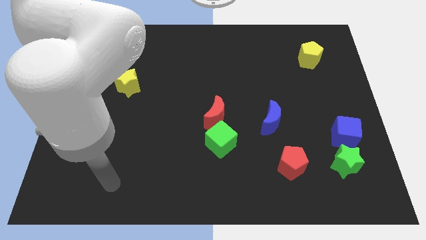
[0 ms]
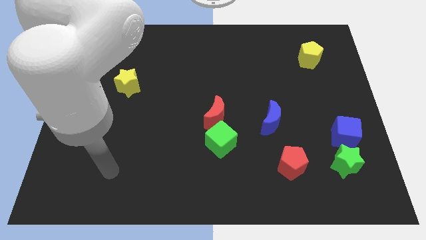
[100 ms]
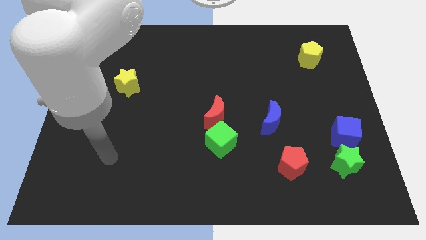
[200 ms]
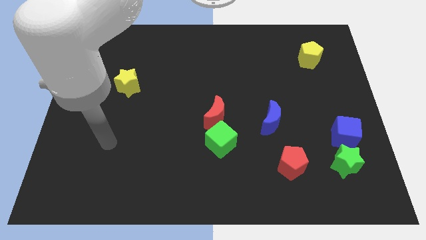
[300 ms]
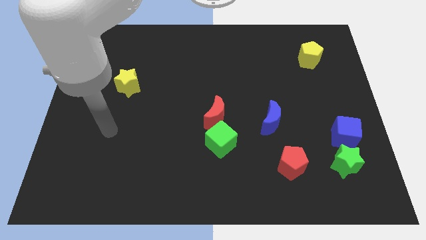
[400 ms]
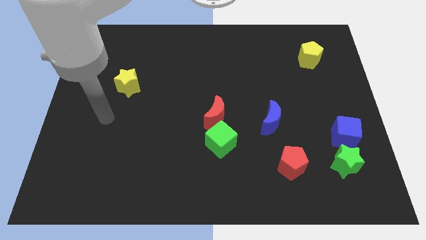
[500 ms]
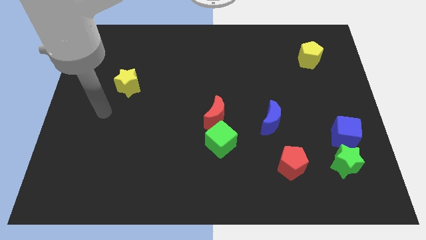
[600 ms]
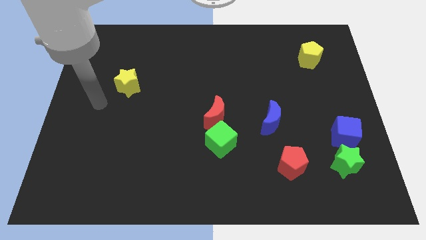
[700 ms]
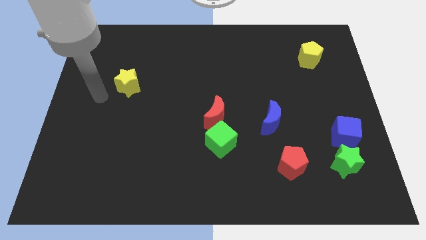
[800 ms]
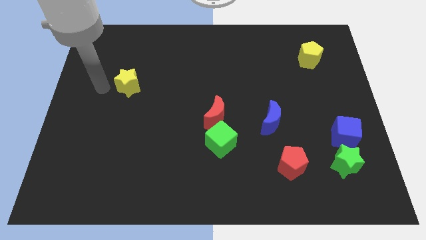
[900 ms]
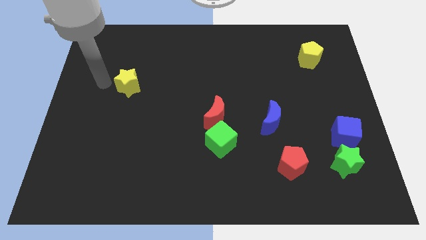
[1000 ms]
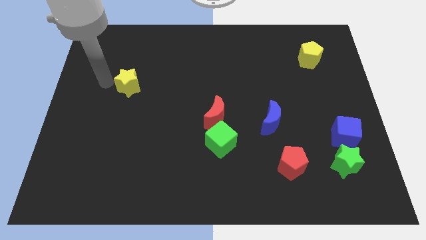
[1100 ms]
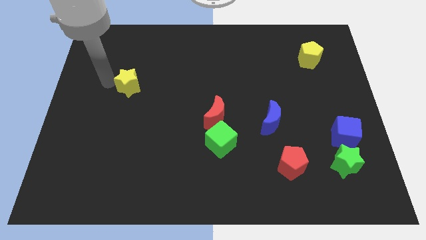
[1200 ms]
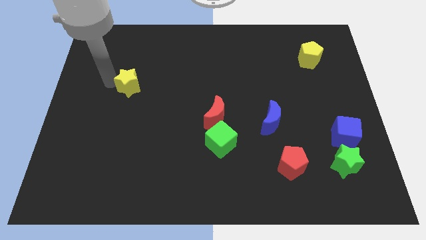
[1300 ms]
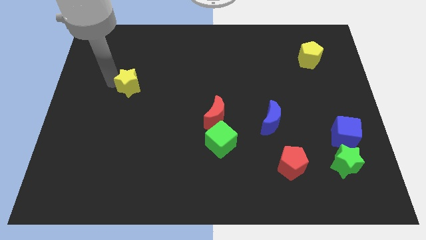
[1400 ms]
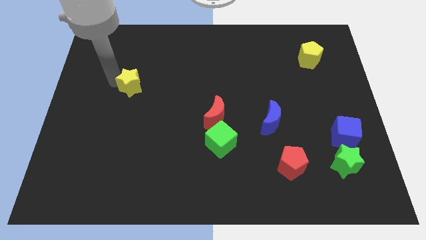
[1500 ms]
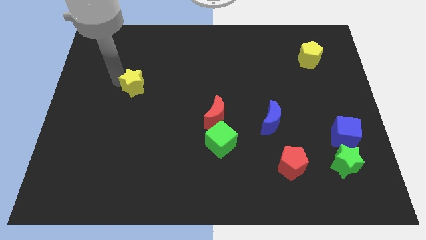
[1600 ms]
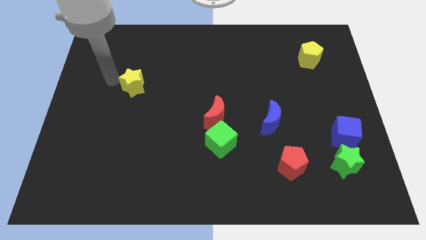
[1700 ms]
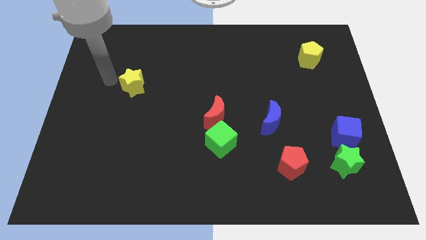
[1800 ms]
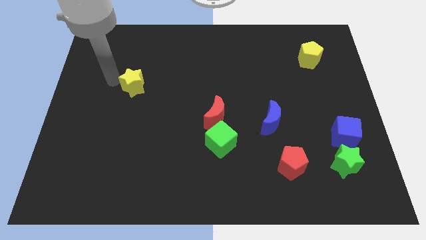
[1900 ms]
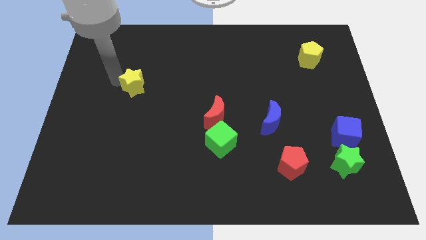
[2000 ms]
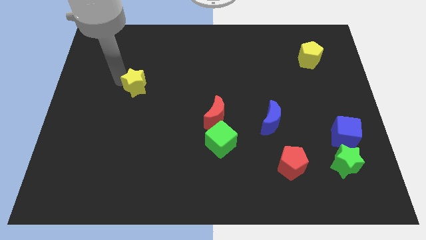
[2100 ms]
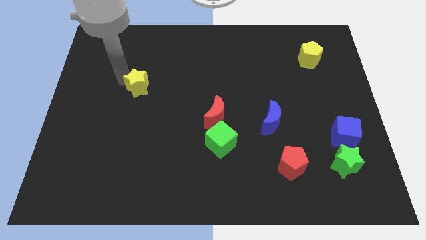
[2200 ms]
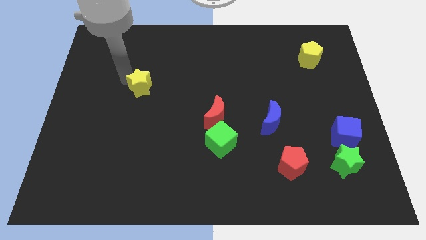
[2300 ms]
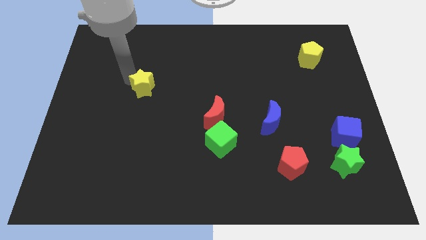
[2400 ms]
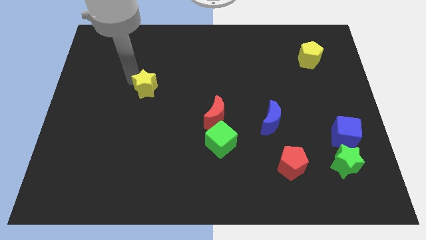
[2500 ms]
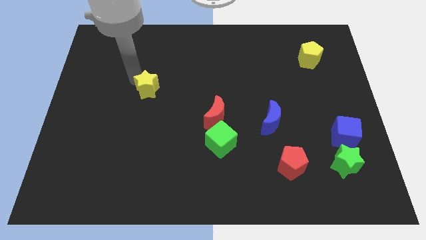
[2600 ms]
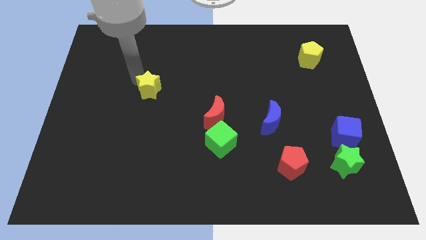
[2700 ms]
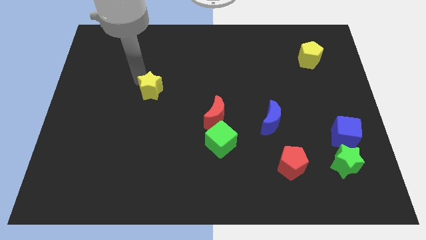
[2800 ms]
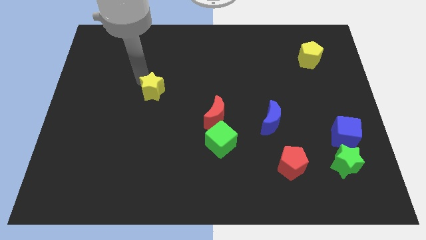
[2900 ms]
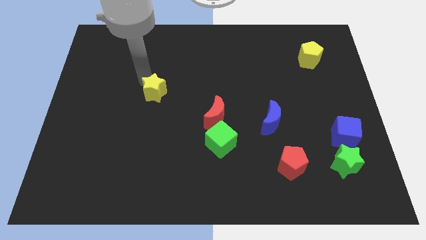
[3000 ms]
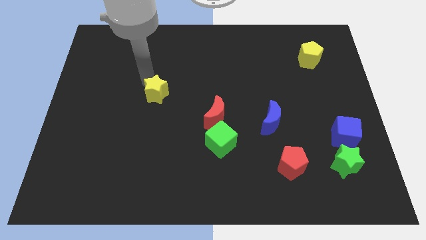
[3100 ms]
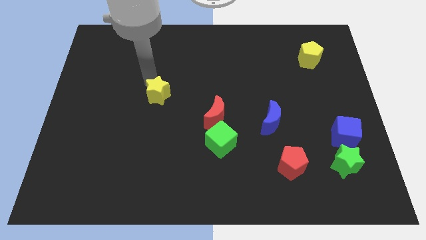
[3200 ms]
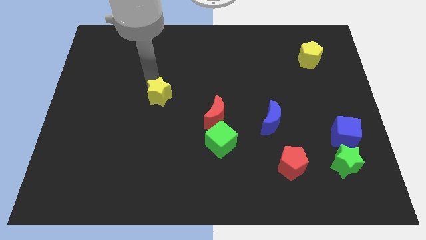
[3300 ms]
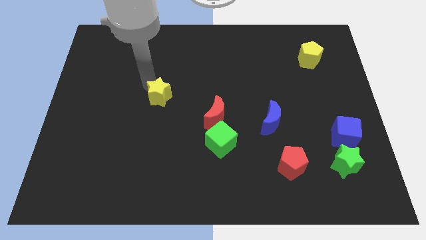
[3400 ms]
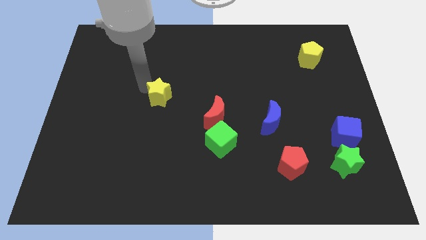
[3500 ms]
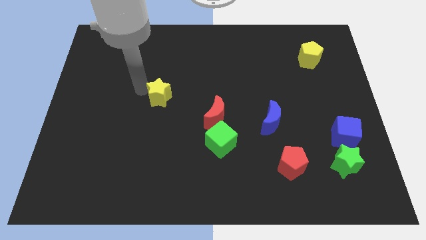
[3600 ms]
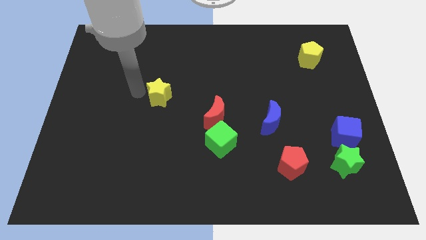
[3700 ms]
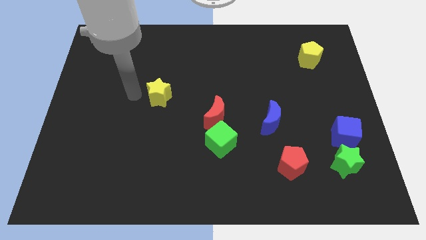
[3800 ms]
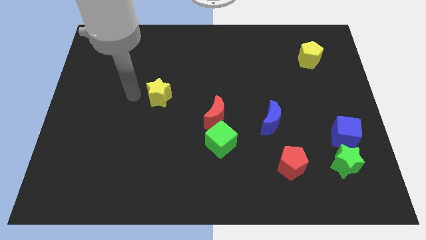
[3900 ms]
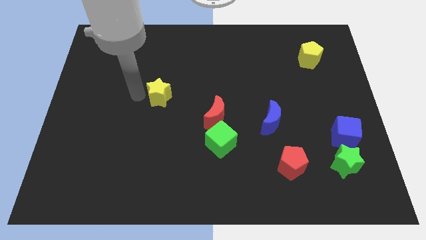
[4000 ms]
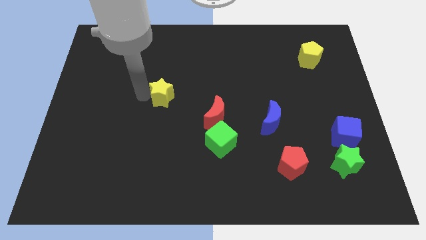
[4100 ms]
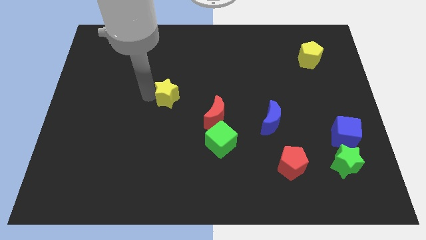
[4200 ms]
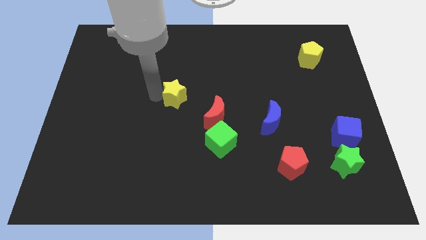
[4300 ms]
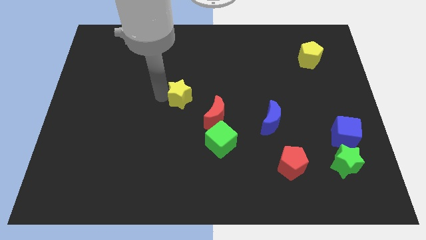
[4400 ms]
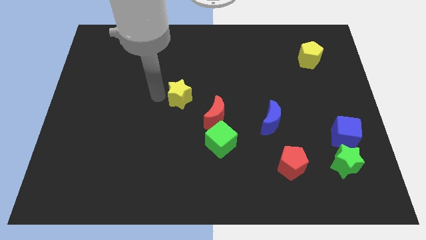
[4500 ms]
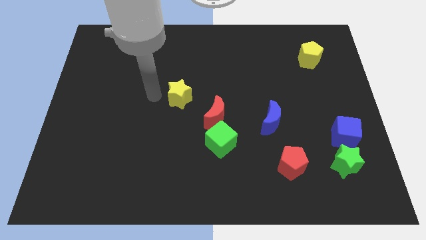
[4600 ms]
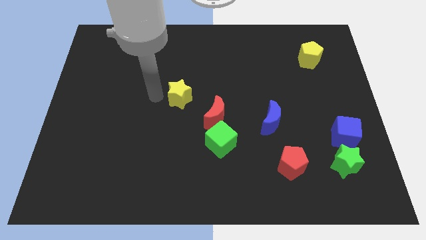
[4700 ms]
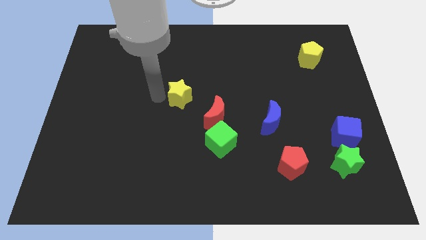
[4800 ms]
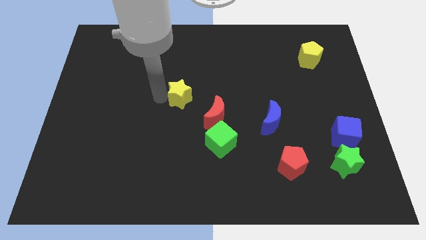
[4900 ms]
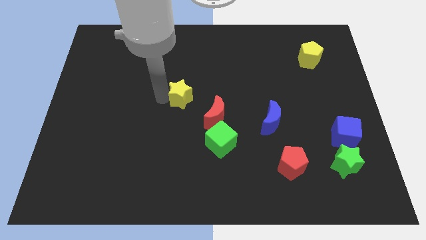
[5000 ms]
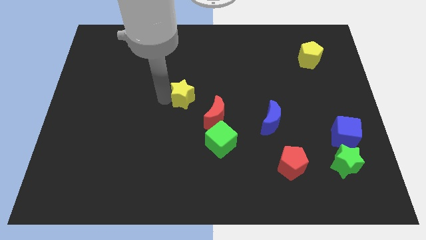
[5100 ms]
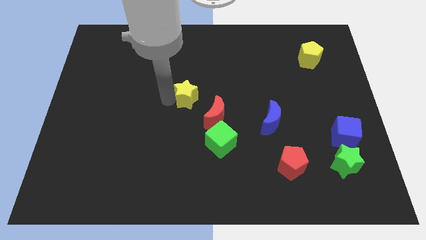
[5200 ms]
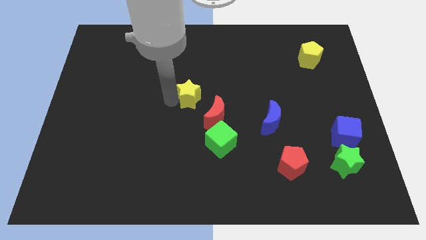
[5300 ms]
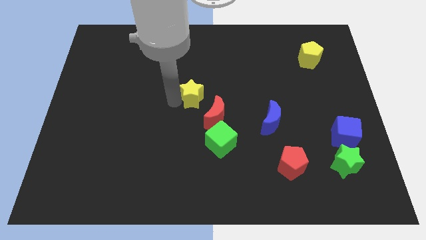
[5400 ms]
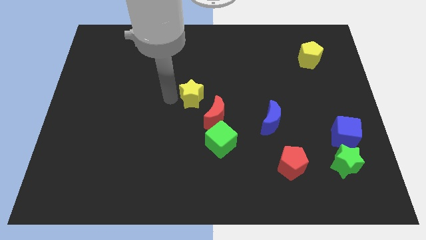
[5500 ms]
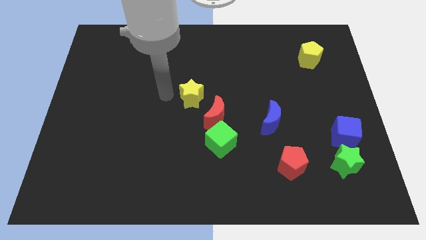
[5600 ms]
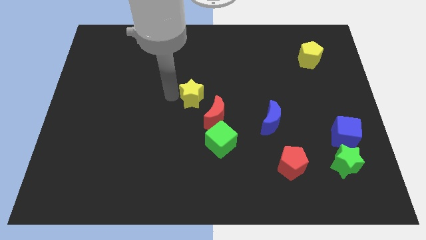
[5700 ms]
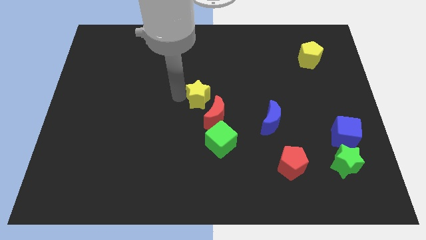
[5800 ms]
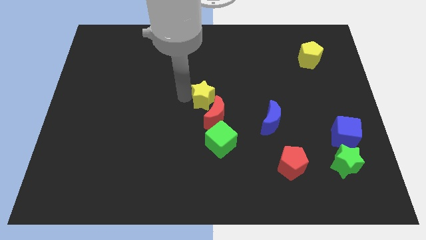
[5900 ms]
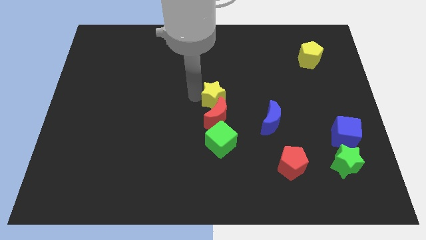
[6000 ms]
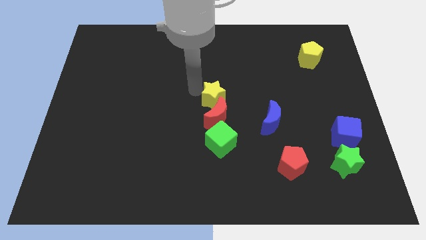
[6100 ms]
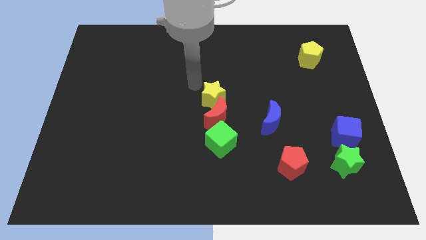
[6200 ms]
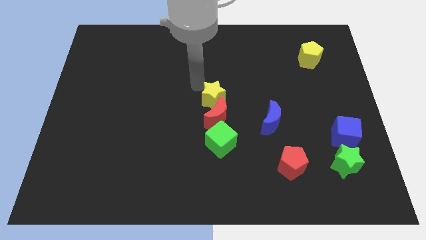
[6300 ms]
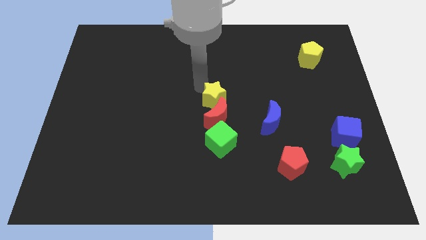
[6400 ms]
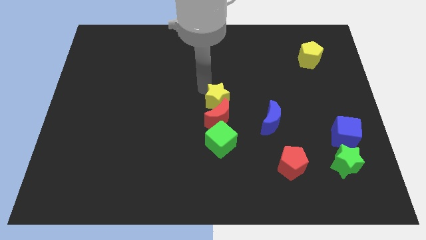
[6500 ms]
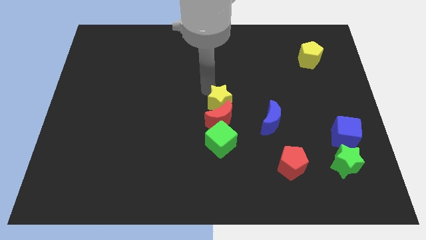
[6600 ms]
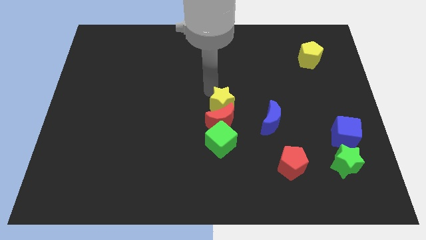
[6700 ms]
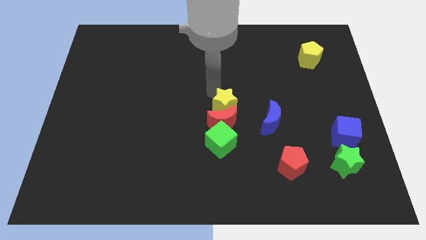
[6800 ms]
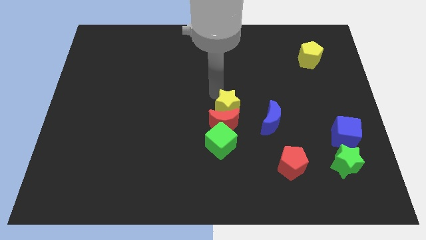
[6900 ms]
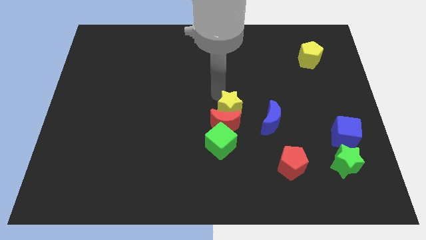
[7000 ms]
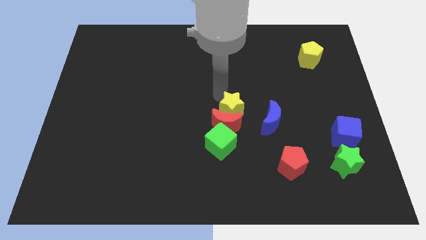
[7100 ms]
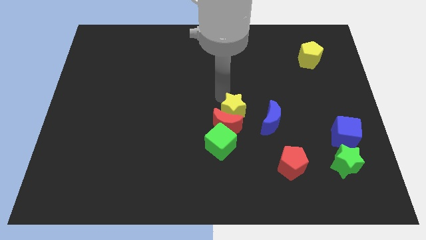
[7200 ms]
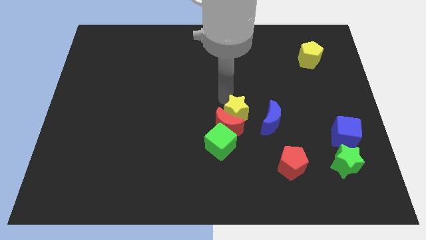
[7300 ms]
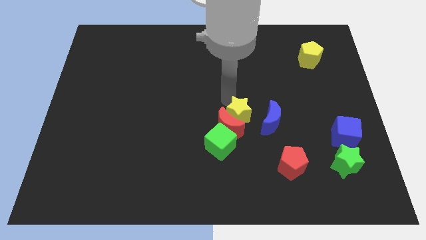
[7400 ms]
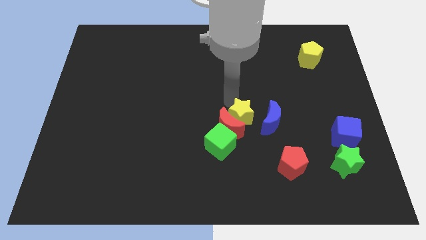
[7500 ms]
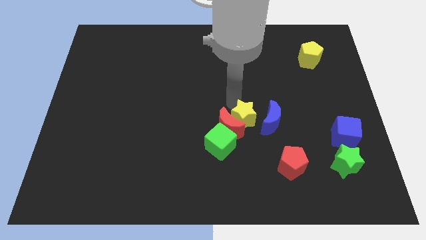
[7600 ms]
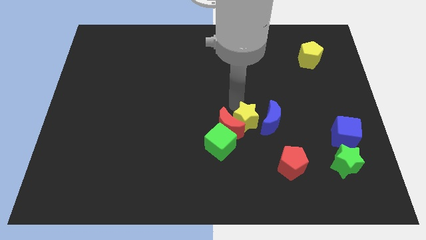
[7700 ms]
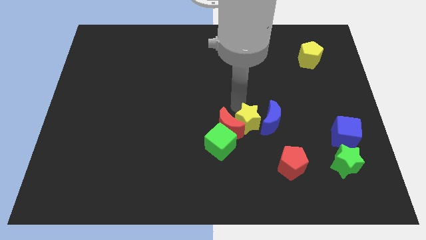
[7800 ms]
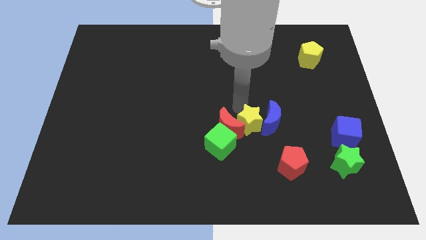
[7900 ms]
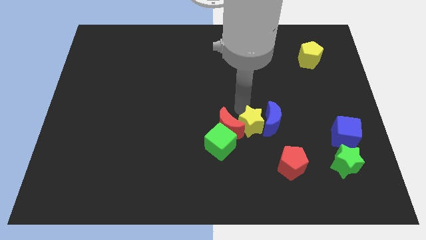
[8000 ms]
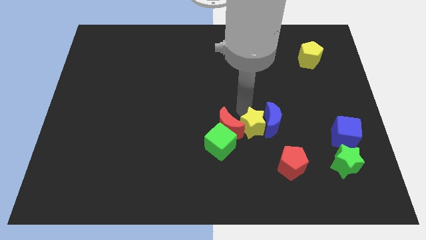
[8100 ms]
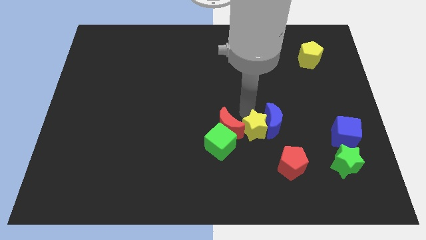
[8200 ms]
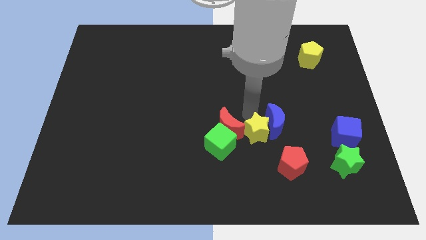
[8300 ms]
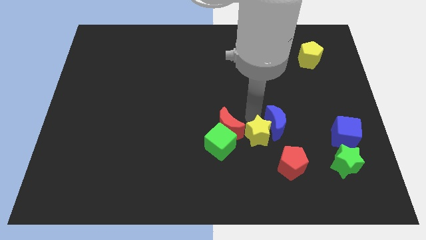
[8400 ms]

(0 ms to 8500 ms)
push the yellow star below the blue moon
